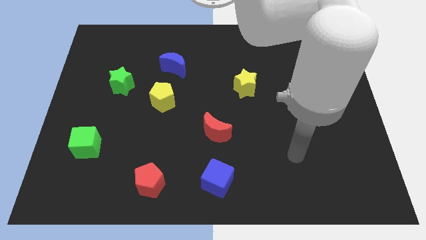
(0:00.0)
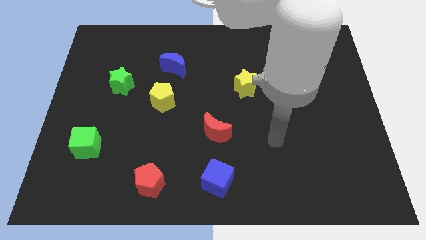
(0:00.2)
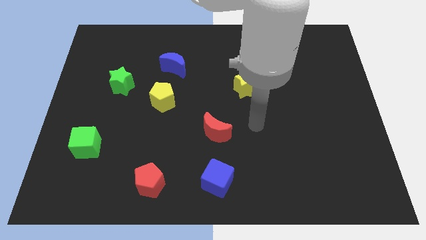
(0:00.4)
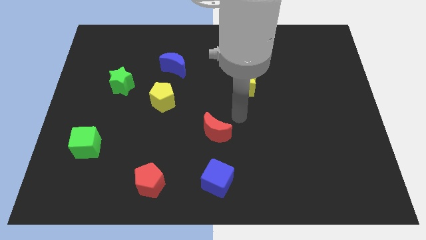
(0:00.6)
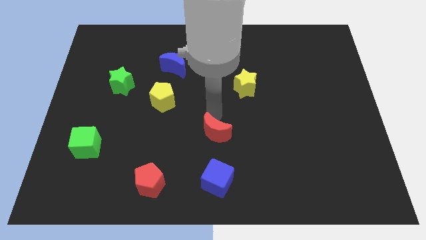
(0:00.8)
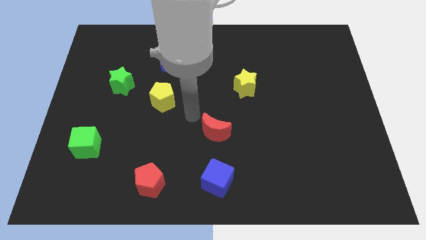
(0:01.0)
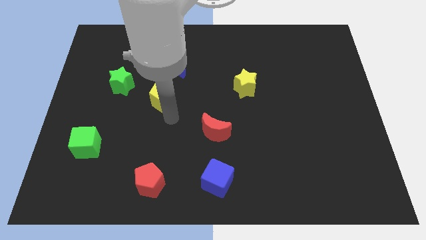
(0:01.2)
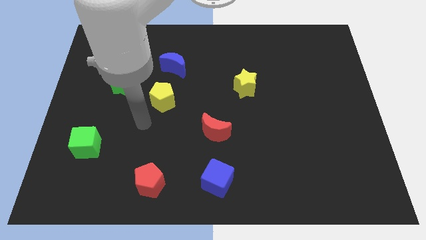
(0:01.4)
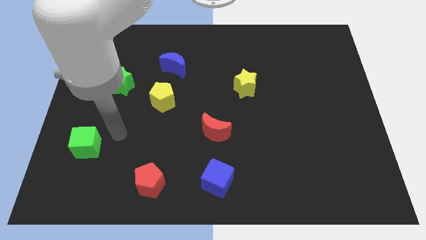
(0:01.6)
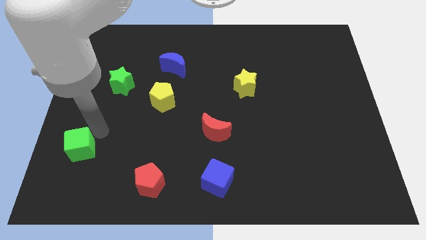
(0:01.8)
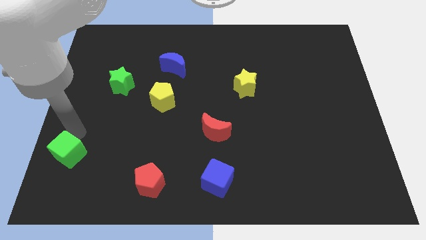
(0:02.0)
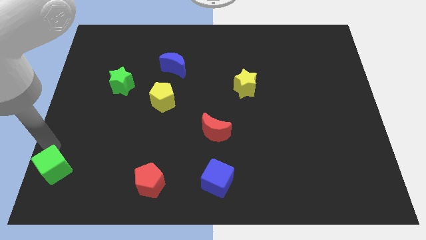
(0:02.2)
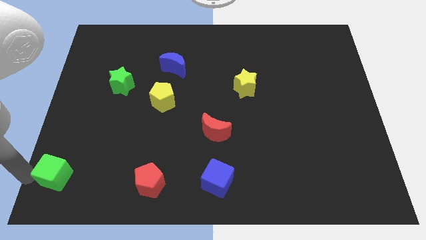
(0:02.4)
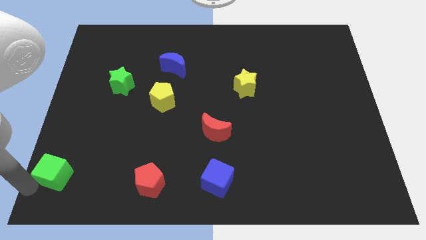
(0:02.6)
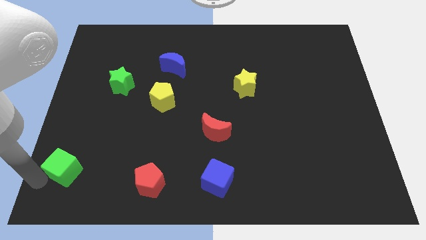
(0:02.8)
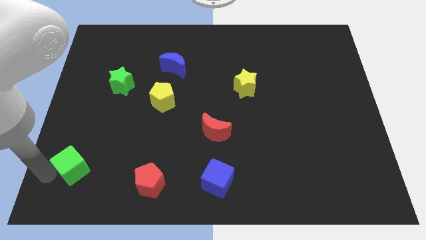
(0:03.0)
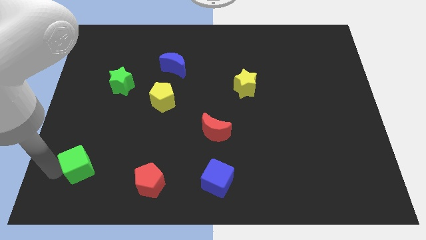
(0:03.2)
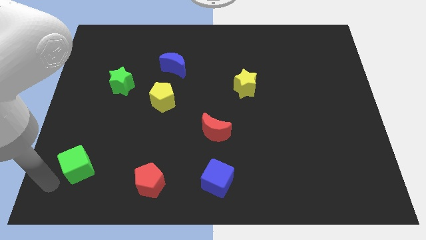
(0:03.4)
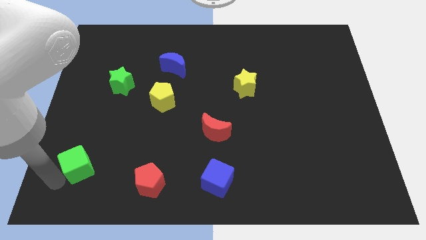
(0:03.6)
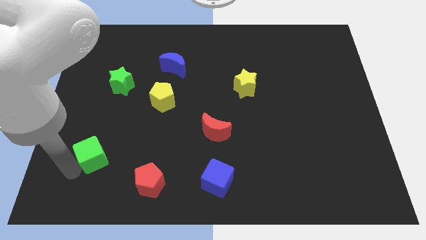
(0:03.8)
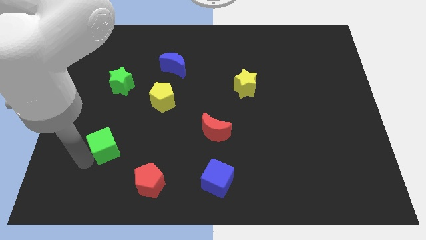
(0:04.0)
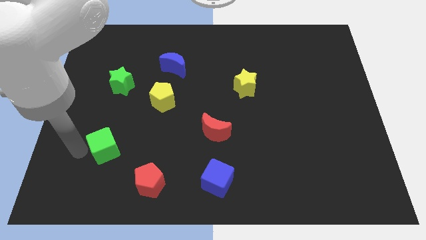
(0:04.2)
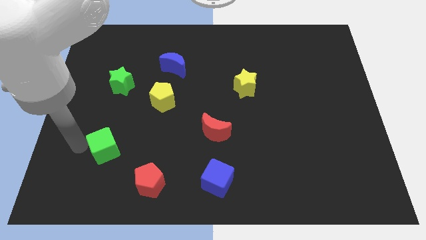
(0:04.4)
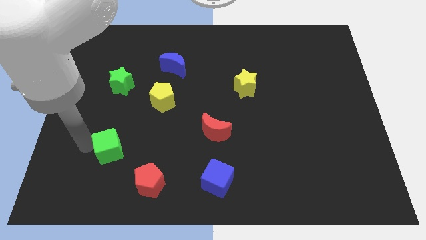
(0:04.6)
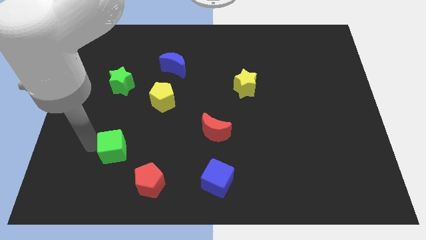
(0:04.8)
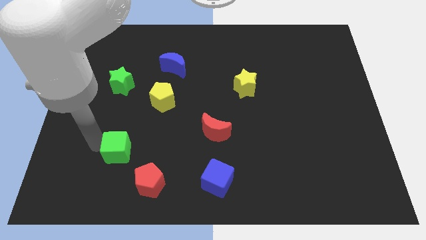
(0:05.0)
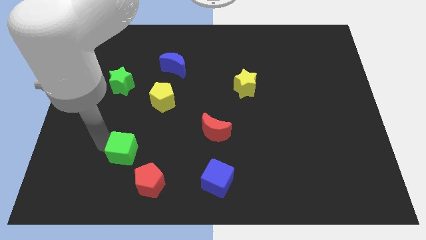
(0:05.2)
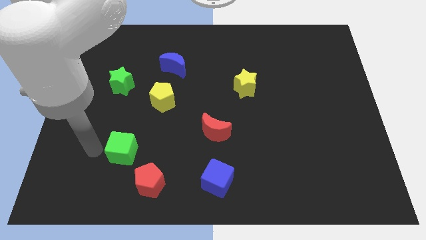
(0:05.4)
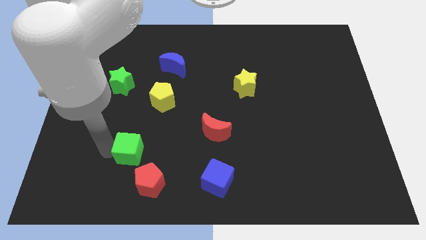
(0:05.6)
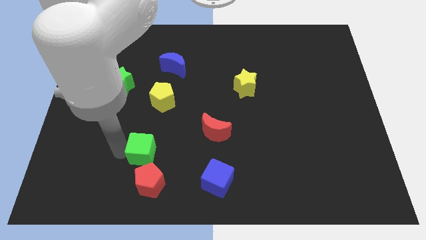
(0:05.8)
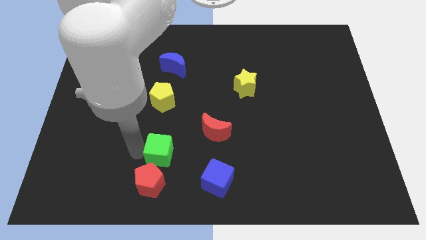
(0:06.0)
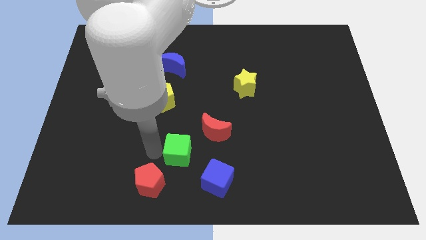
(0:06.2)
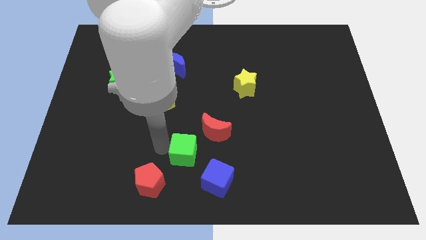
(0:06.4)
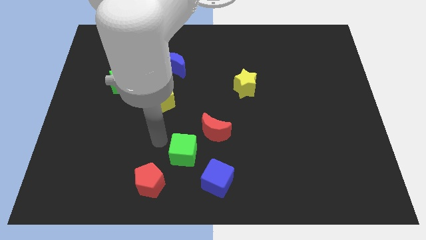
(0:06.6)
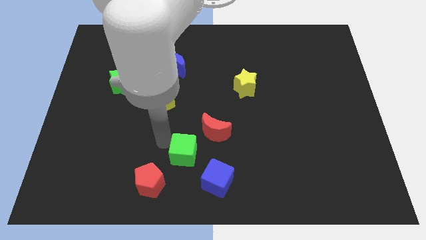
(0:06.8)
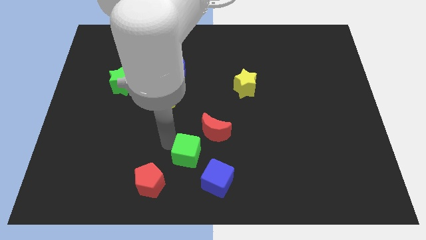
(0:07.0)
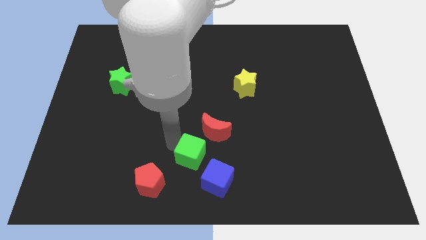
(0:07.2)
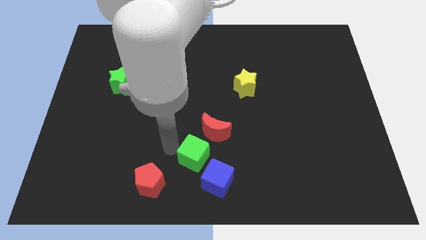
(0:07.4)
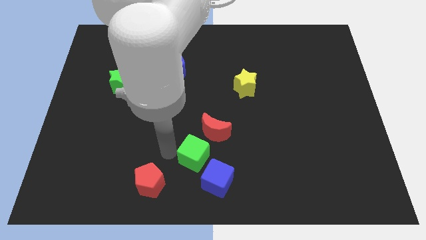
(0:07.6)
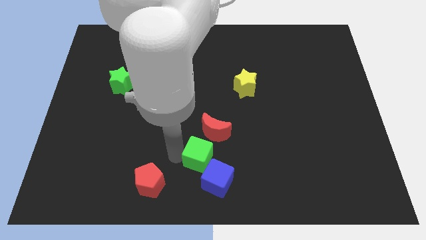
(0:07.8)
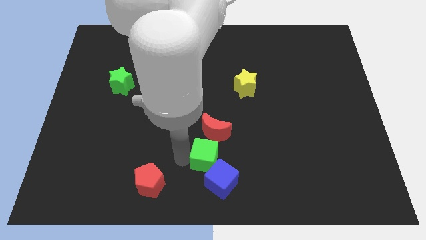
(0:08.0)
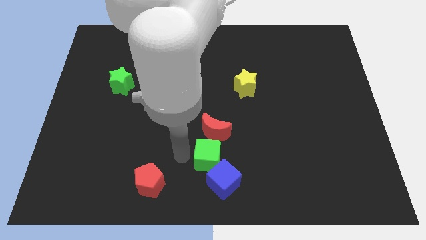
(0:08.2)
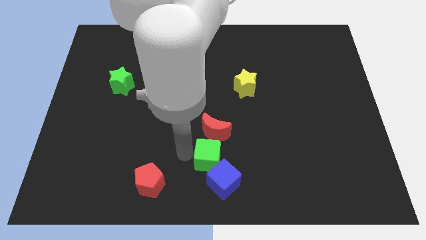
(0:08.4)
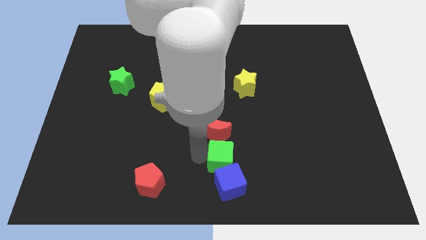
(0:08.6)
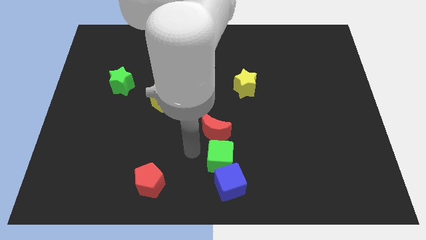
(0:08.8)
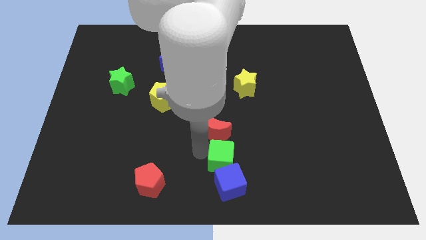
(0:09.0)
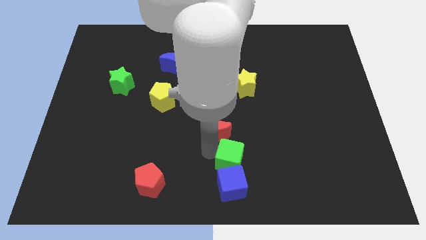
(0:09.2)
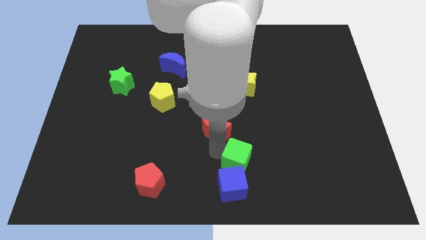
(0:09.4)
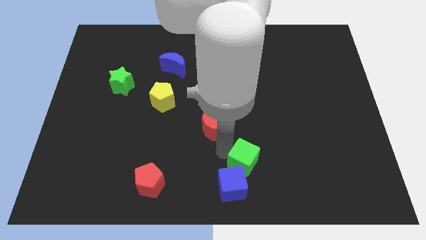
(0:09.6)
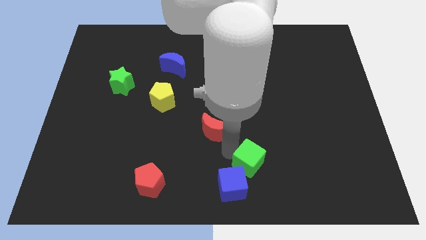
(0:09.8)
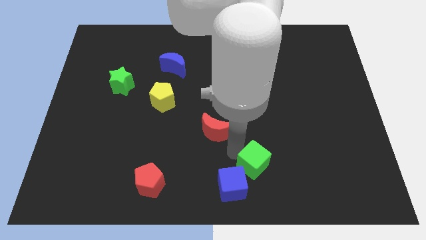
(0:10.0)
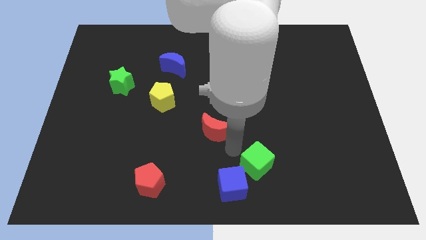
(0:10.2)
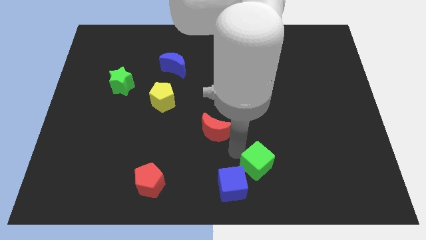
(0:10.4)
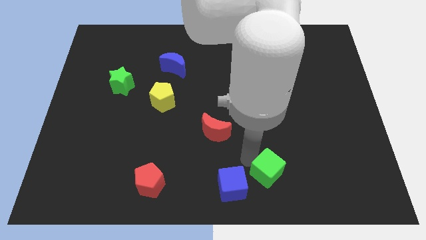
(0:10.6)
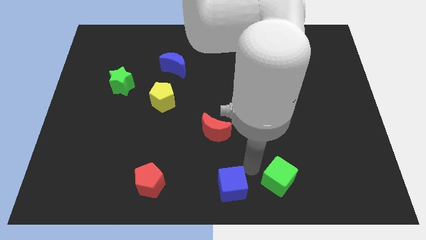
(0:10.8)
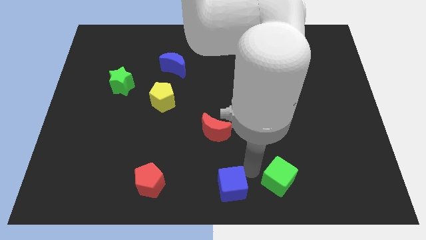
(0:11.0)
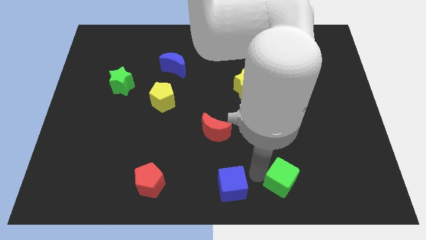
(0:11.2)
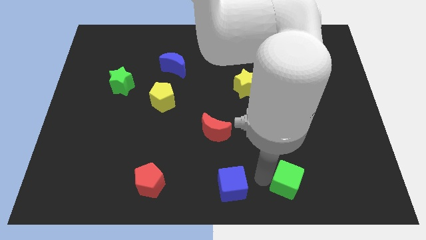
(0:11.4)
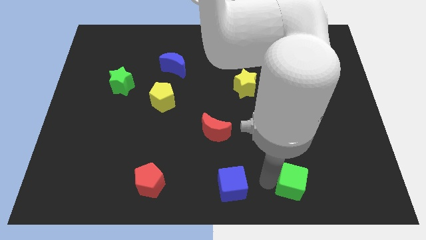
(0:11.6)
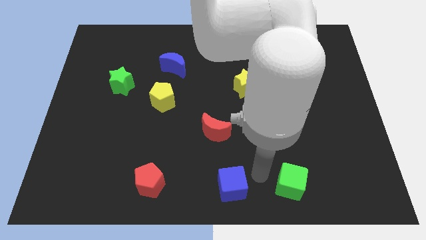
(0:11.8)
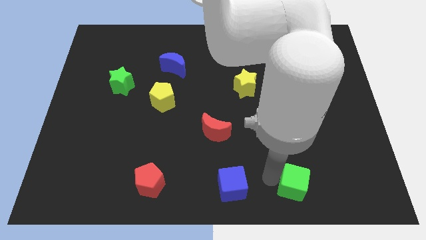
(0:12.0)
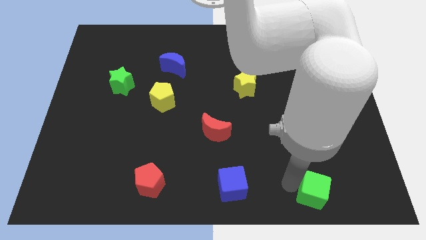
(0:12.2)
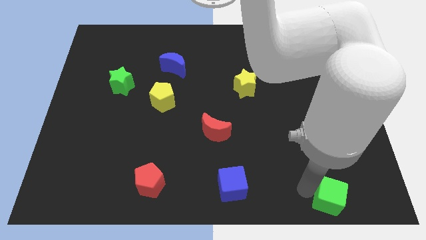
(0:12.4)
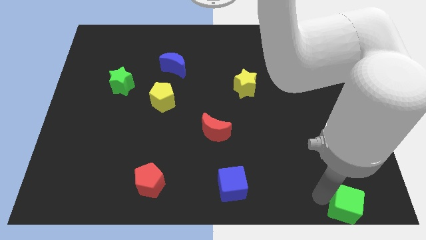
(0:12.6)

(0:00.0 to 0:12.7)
push the green cube to the bottom right of the board

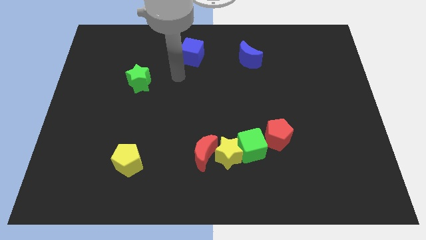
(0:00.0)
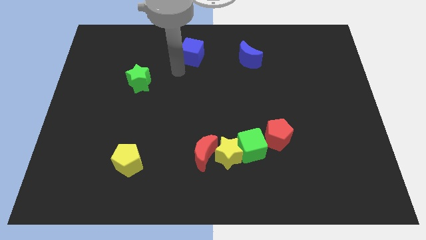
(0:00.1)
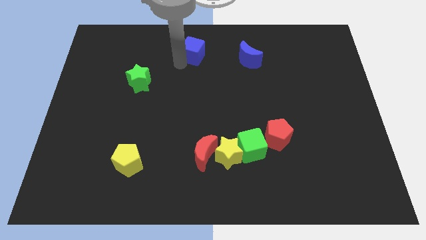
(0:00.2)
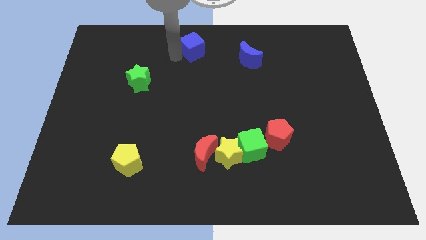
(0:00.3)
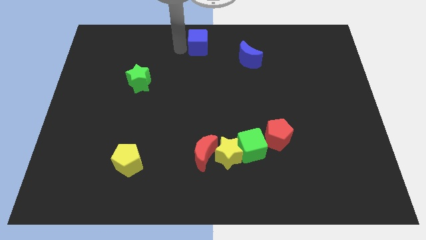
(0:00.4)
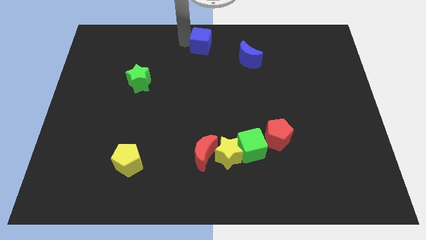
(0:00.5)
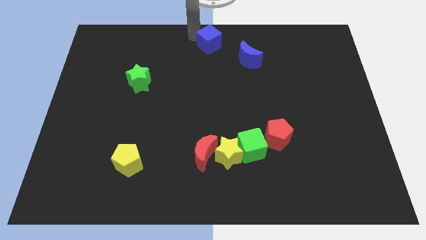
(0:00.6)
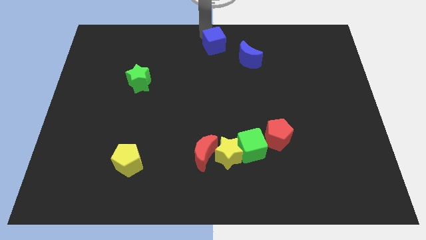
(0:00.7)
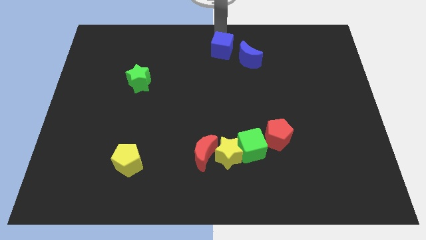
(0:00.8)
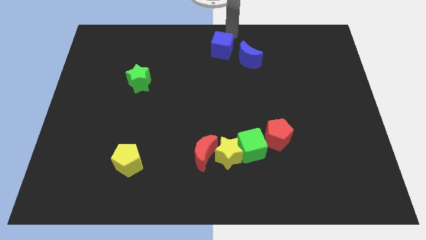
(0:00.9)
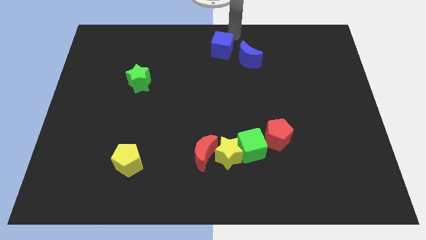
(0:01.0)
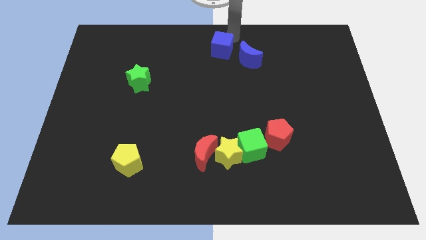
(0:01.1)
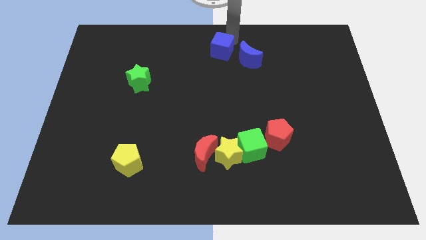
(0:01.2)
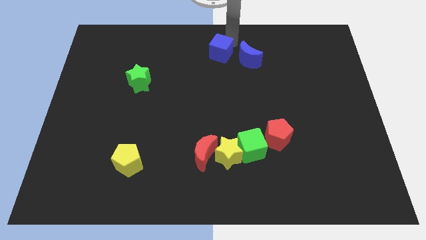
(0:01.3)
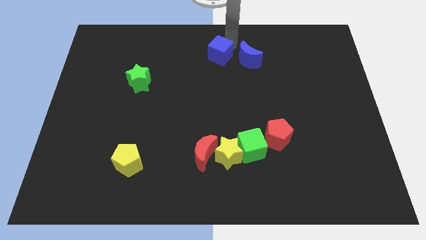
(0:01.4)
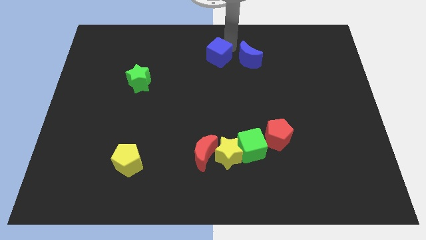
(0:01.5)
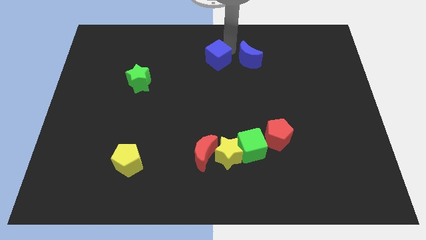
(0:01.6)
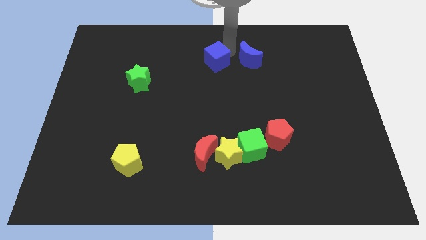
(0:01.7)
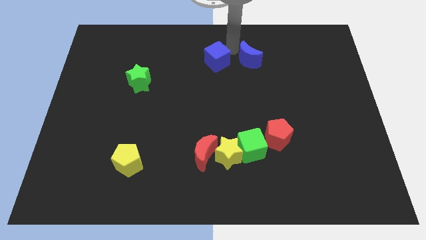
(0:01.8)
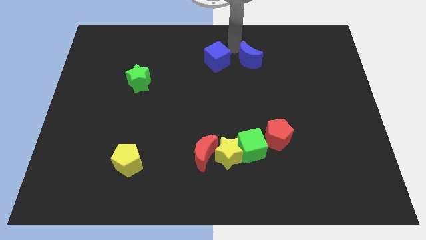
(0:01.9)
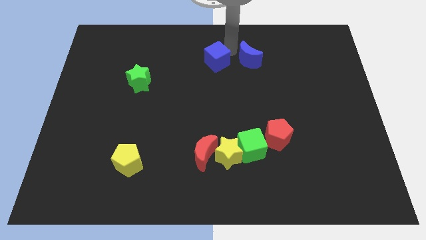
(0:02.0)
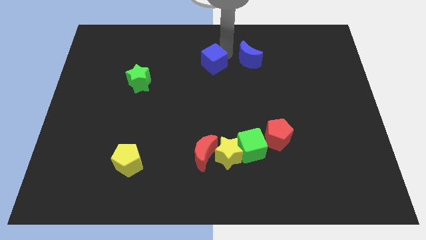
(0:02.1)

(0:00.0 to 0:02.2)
slide the blue cube to the center
